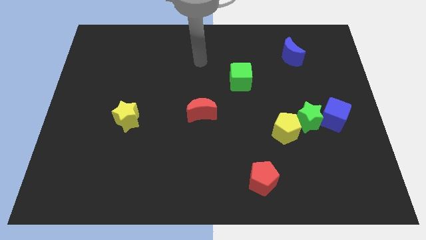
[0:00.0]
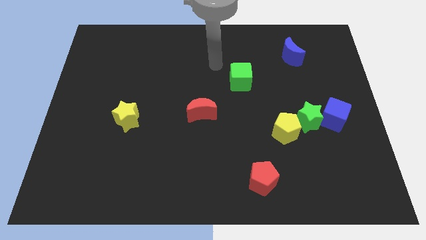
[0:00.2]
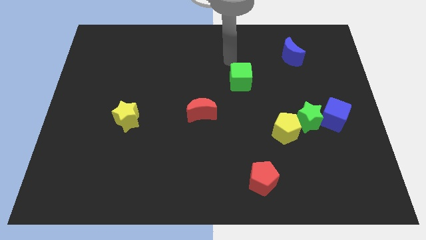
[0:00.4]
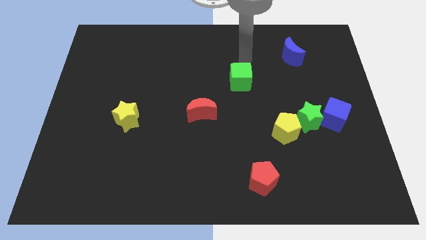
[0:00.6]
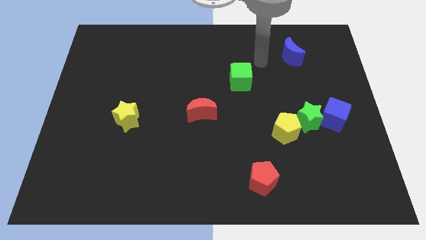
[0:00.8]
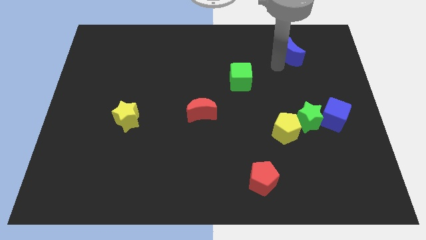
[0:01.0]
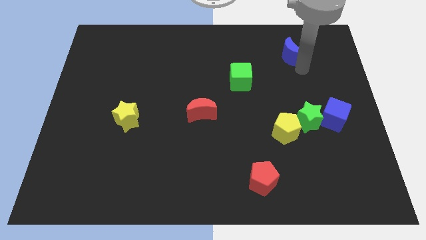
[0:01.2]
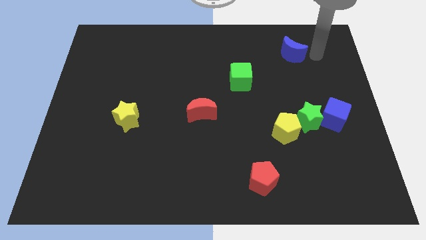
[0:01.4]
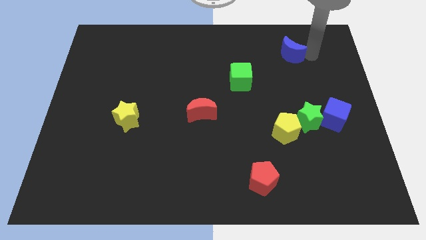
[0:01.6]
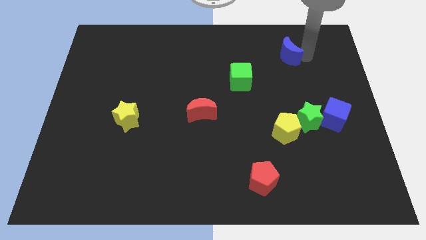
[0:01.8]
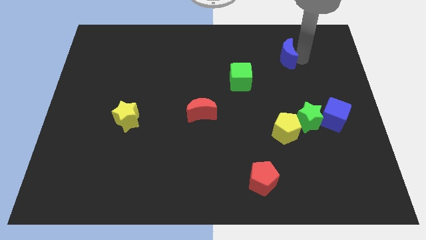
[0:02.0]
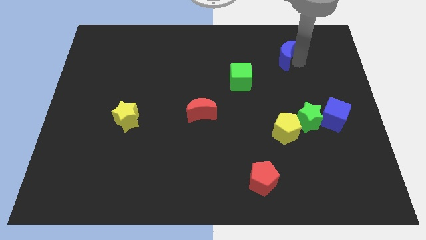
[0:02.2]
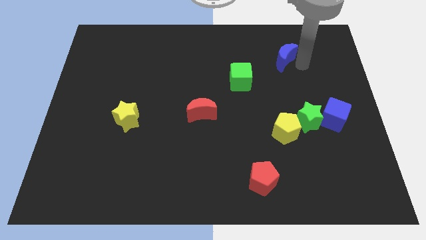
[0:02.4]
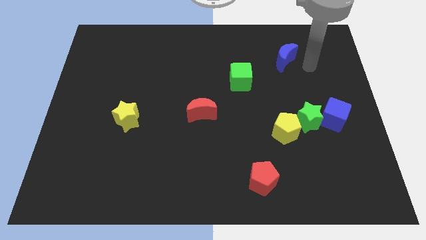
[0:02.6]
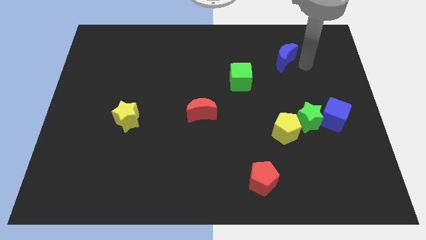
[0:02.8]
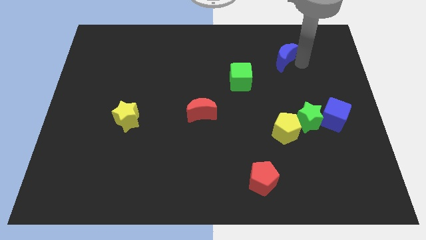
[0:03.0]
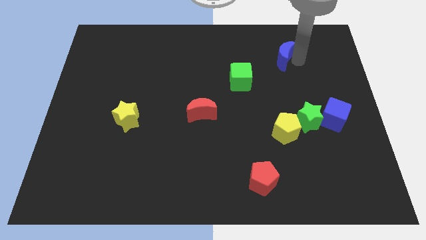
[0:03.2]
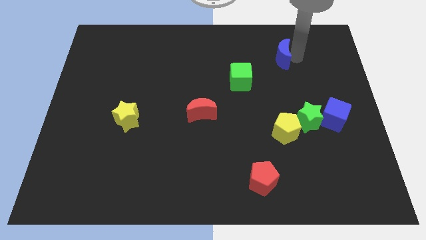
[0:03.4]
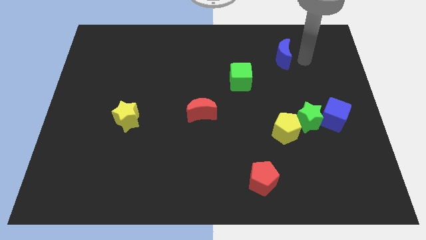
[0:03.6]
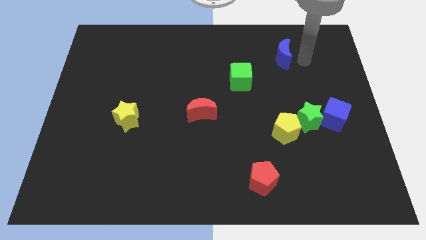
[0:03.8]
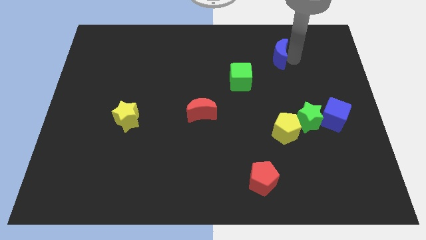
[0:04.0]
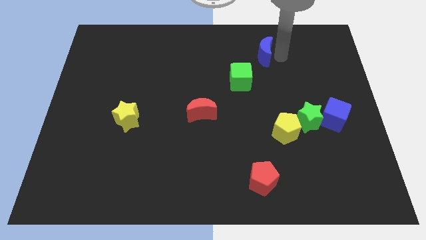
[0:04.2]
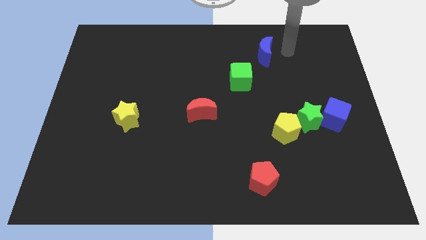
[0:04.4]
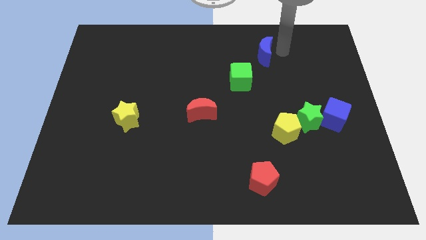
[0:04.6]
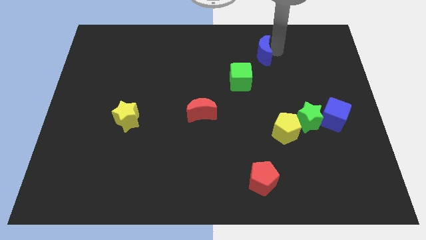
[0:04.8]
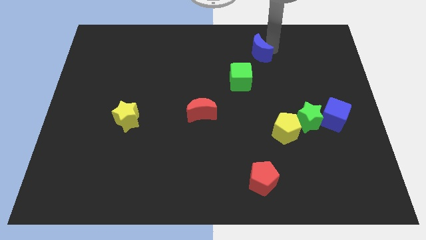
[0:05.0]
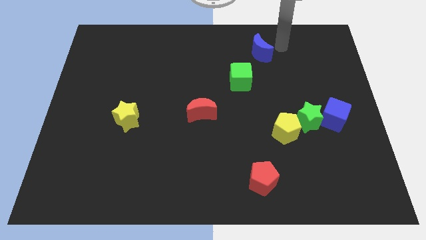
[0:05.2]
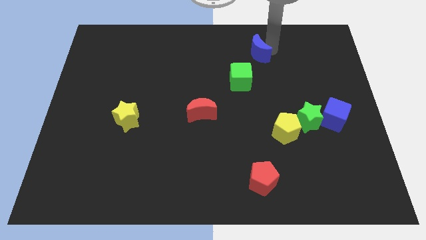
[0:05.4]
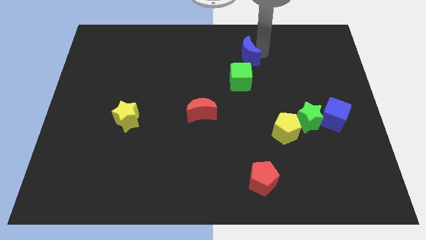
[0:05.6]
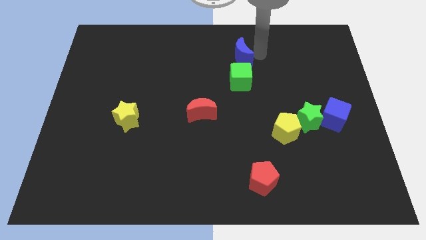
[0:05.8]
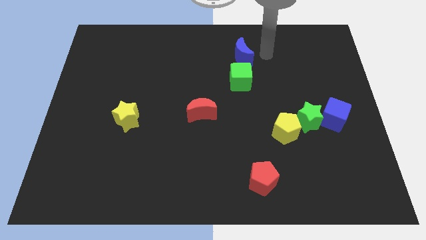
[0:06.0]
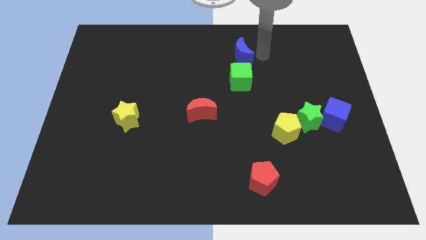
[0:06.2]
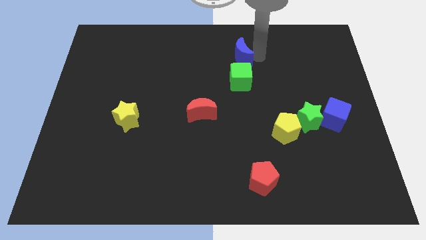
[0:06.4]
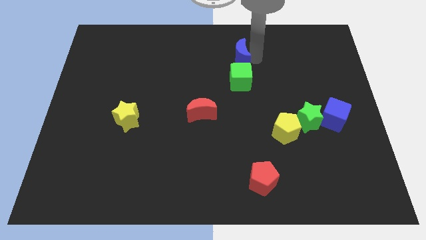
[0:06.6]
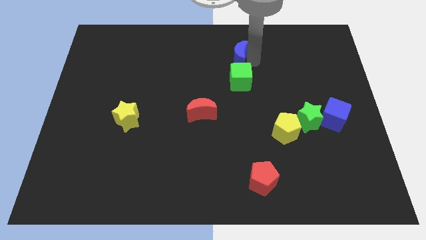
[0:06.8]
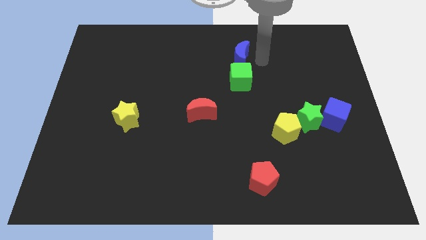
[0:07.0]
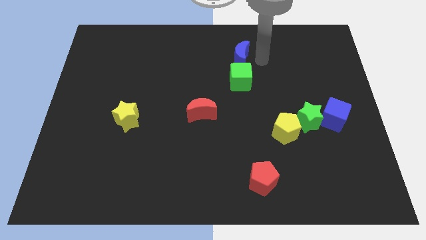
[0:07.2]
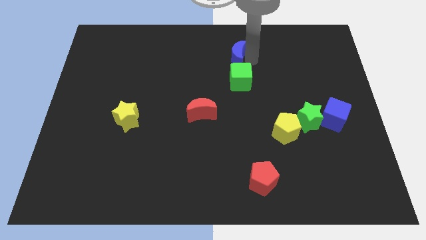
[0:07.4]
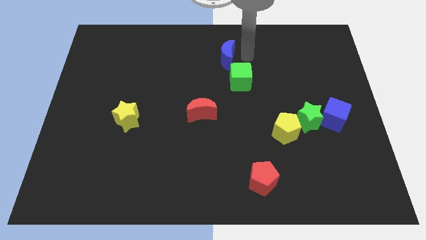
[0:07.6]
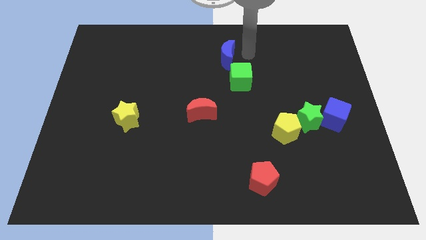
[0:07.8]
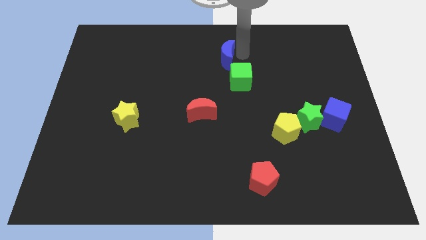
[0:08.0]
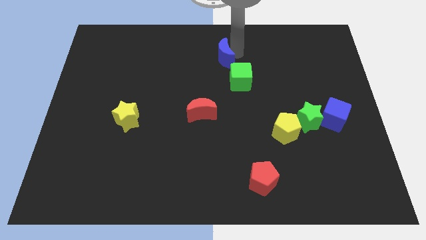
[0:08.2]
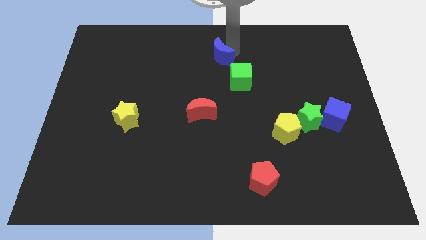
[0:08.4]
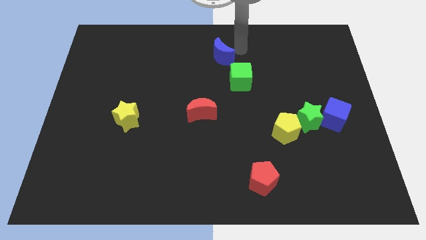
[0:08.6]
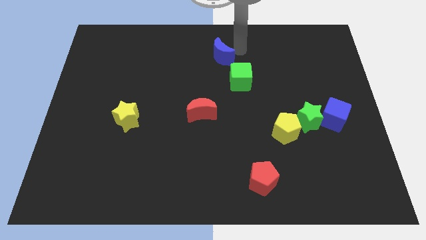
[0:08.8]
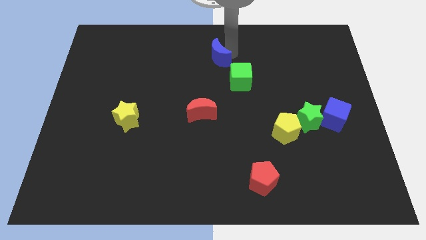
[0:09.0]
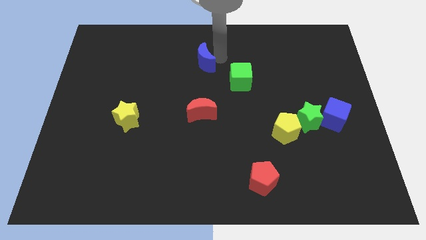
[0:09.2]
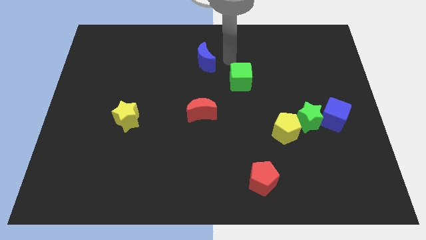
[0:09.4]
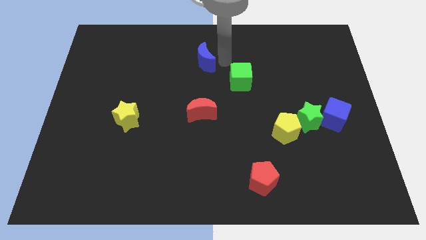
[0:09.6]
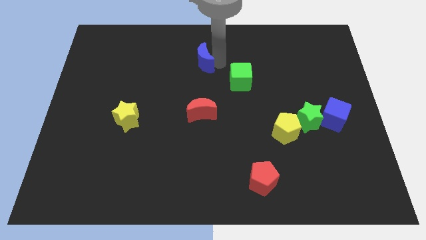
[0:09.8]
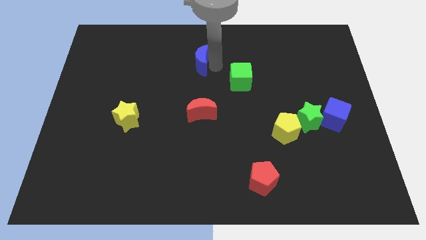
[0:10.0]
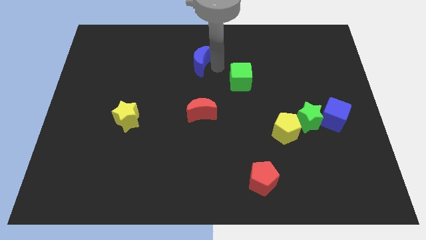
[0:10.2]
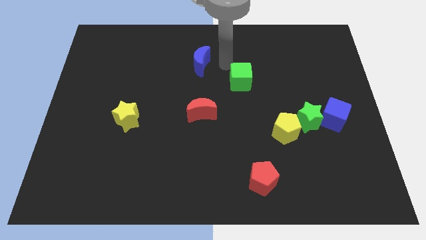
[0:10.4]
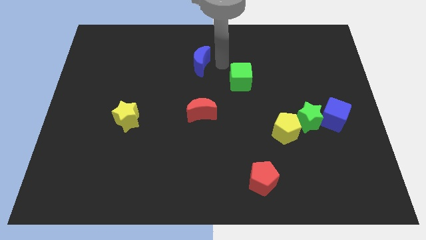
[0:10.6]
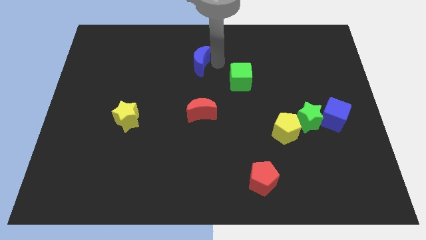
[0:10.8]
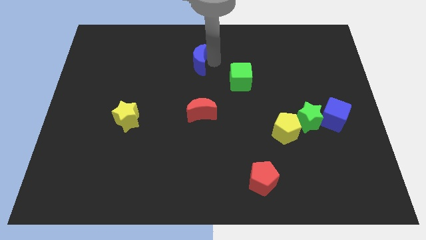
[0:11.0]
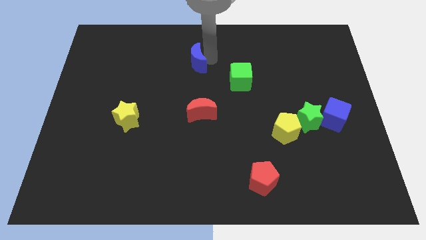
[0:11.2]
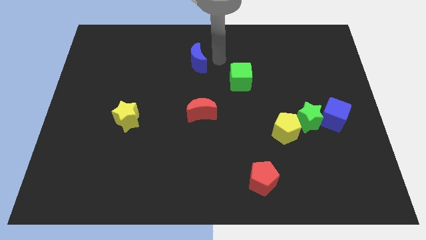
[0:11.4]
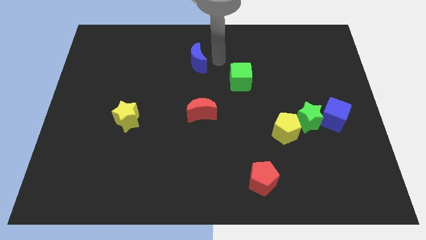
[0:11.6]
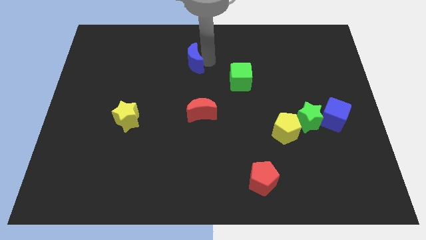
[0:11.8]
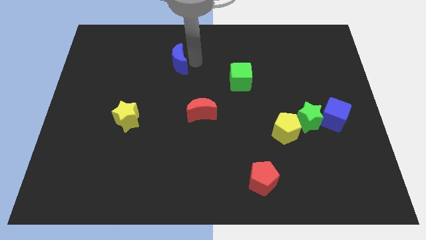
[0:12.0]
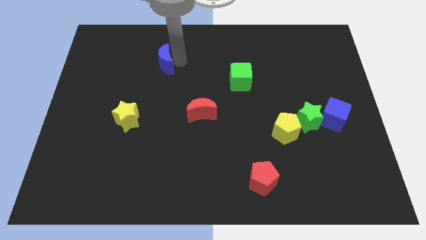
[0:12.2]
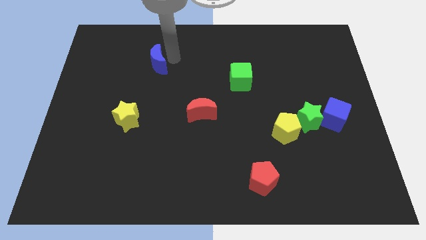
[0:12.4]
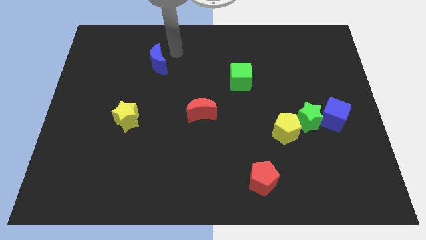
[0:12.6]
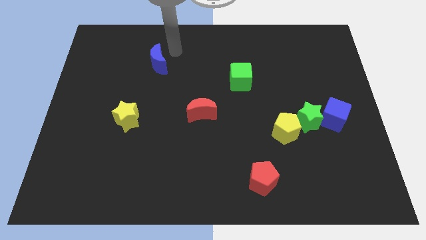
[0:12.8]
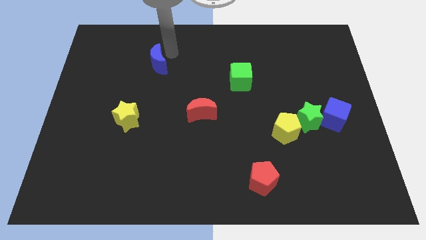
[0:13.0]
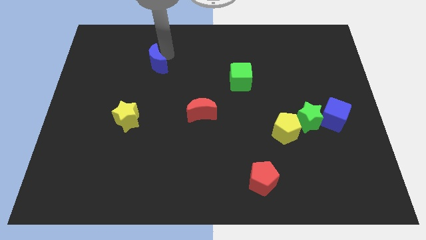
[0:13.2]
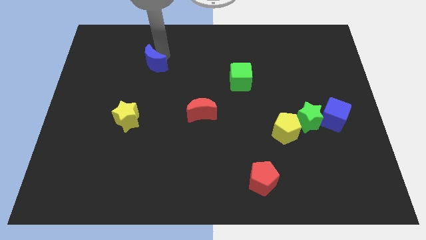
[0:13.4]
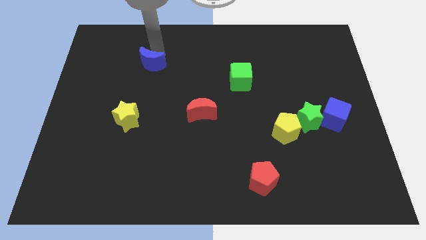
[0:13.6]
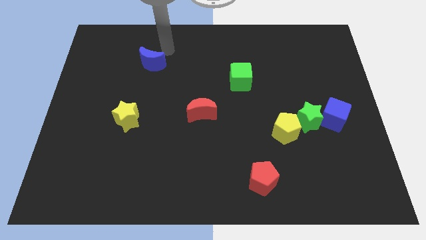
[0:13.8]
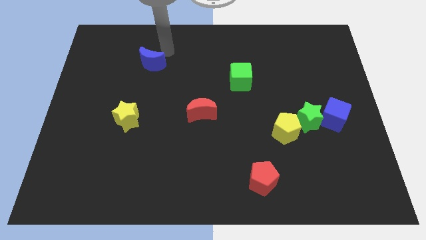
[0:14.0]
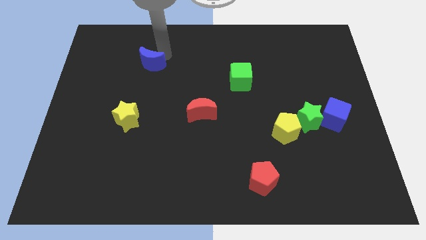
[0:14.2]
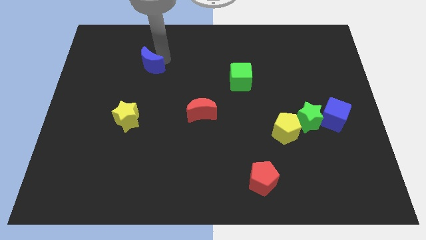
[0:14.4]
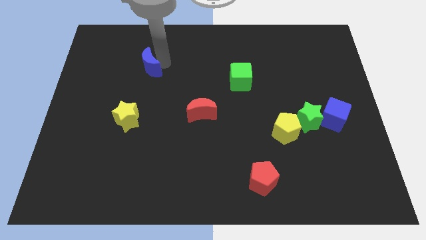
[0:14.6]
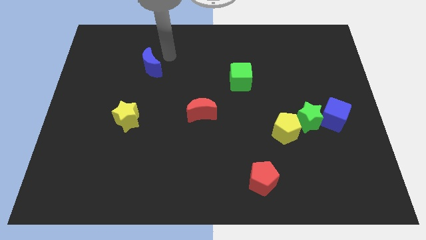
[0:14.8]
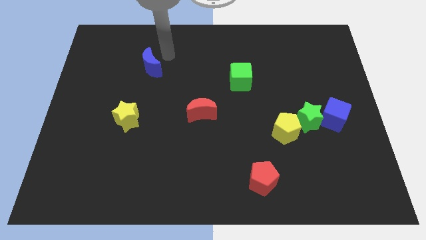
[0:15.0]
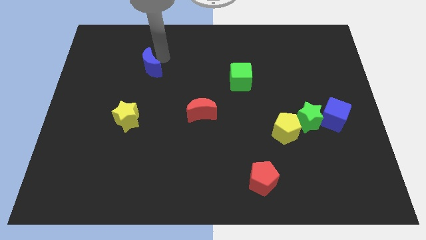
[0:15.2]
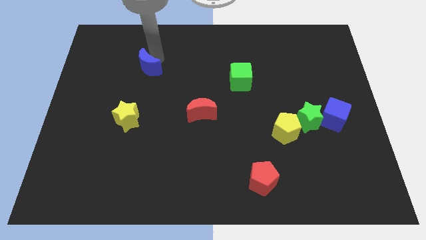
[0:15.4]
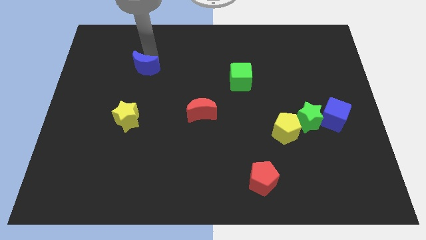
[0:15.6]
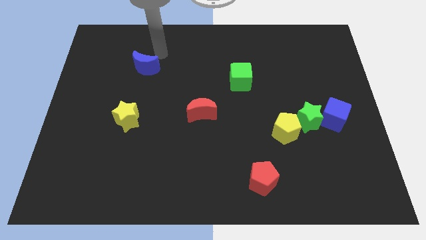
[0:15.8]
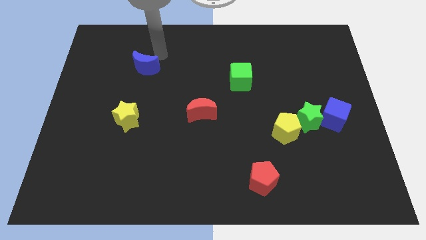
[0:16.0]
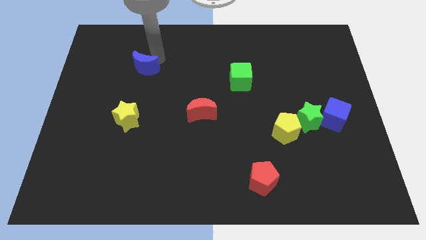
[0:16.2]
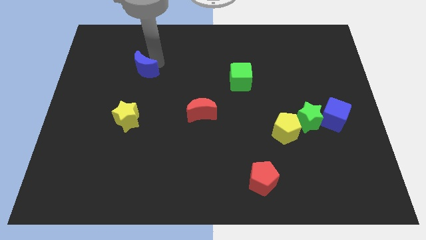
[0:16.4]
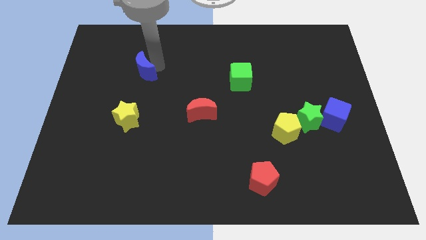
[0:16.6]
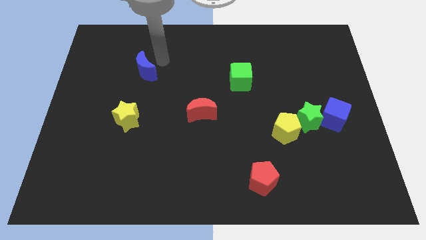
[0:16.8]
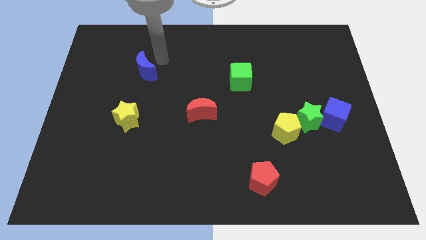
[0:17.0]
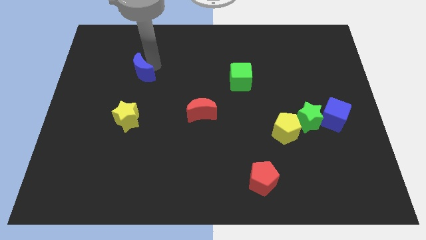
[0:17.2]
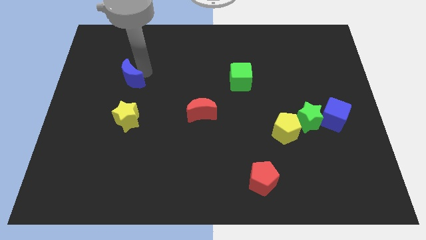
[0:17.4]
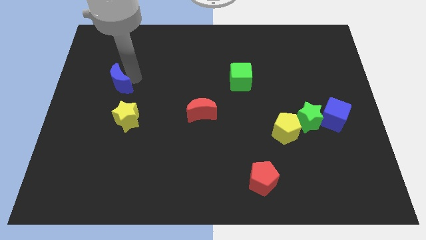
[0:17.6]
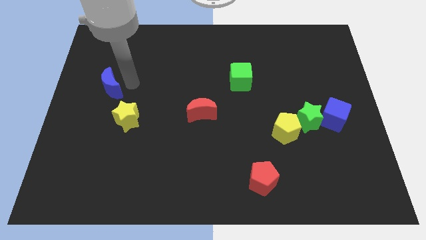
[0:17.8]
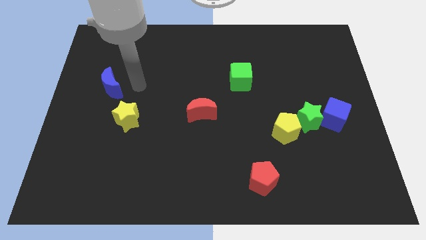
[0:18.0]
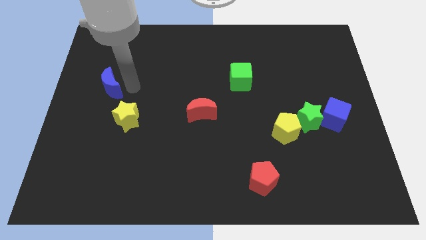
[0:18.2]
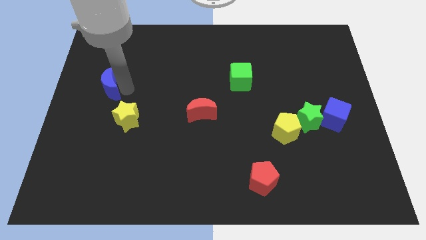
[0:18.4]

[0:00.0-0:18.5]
push the blue moon to the center left
